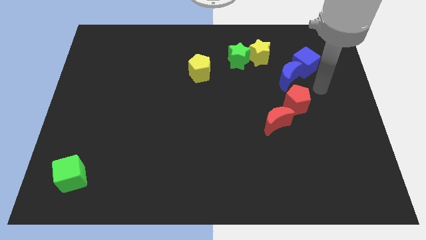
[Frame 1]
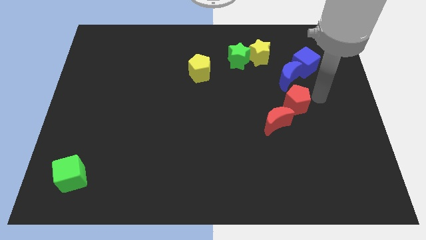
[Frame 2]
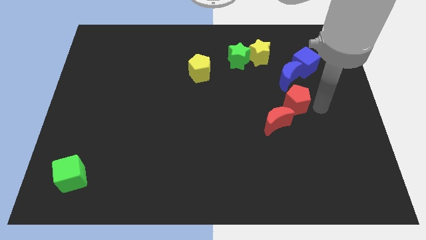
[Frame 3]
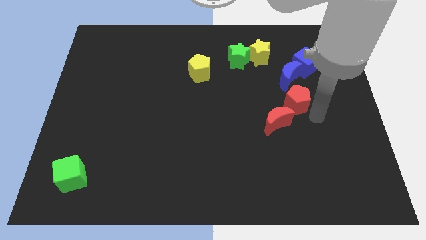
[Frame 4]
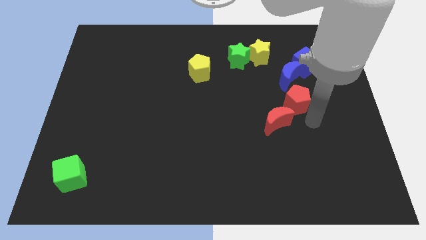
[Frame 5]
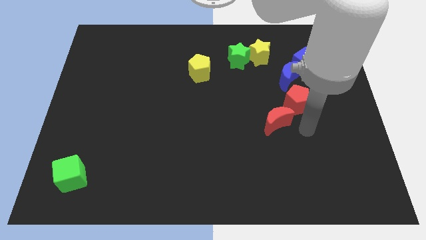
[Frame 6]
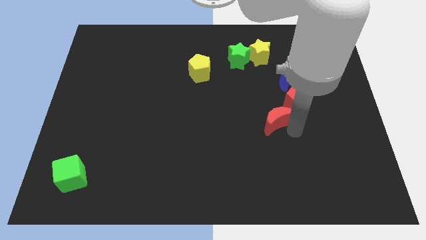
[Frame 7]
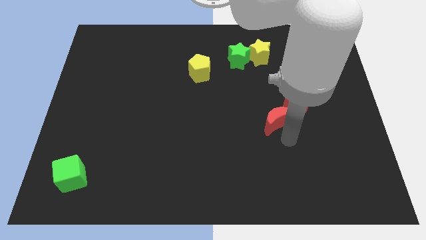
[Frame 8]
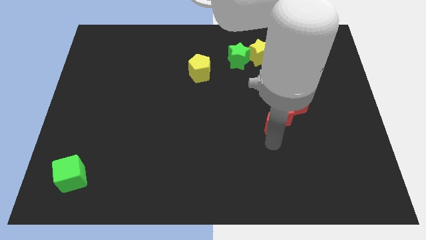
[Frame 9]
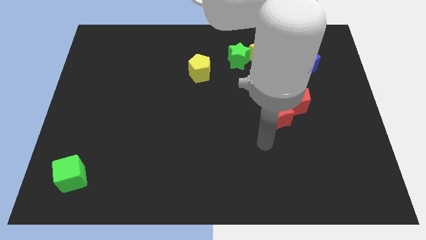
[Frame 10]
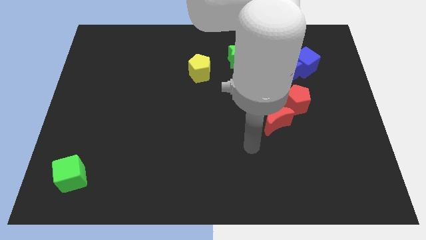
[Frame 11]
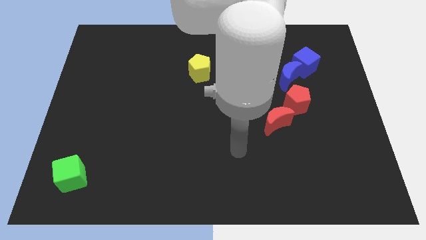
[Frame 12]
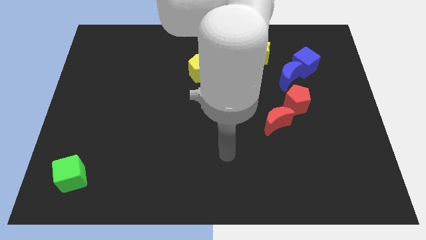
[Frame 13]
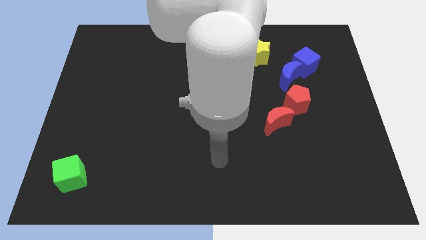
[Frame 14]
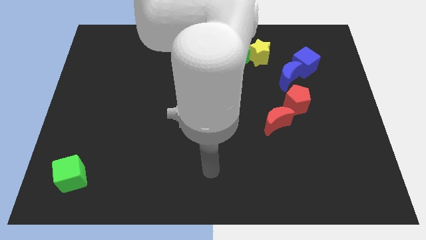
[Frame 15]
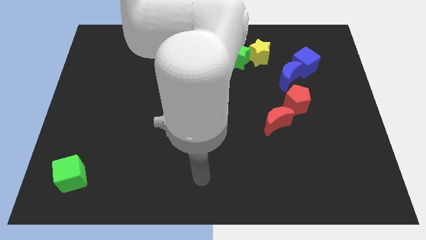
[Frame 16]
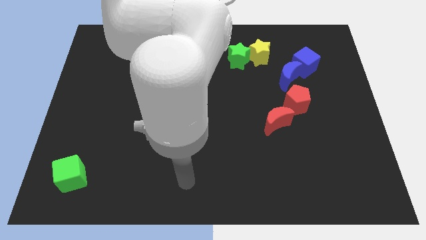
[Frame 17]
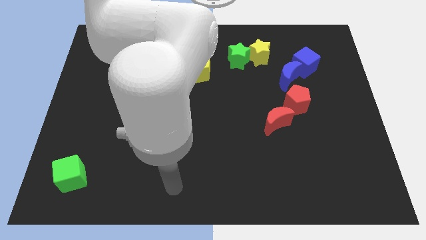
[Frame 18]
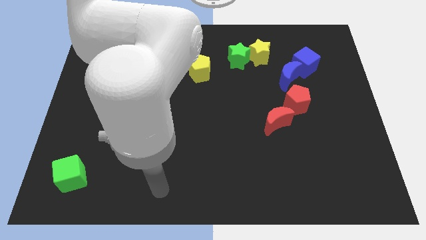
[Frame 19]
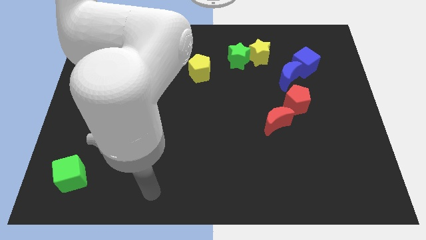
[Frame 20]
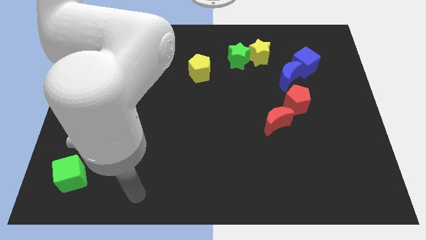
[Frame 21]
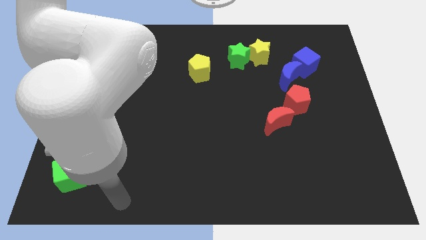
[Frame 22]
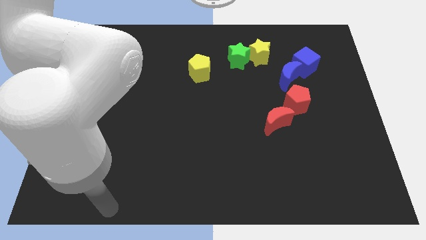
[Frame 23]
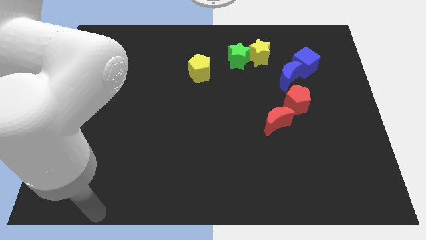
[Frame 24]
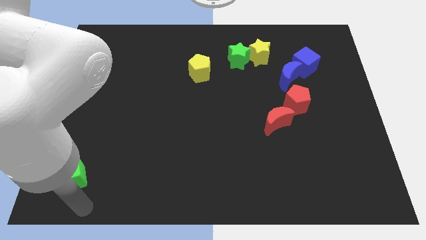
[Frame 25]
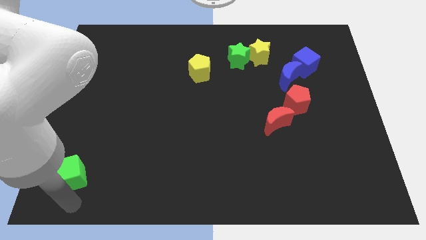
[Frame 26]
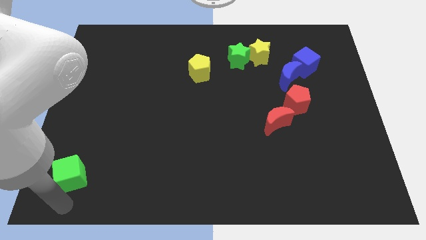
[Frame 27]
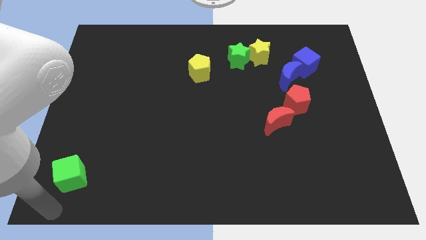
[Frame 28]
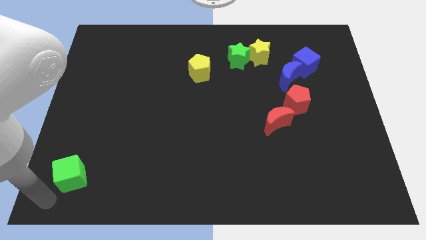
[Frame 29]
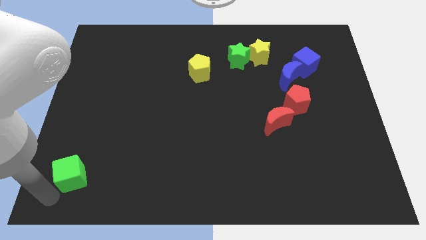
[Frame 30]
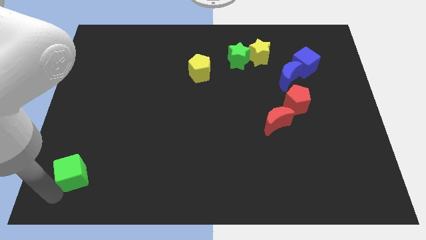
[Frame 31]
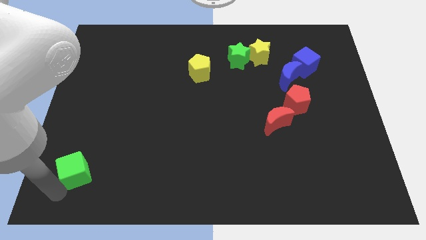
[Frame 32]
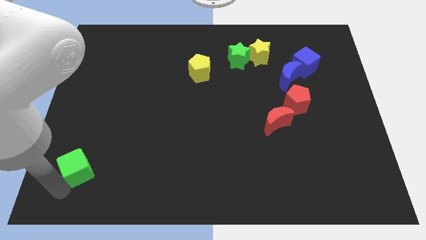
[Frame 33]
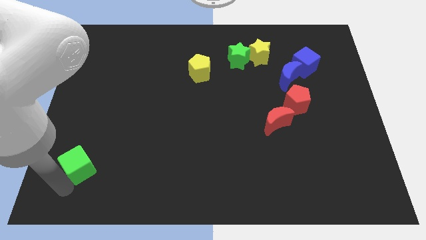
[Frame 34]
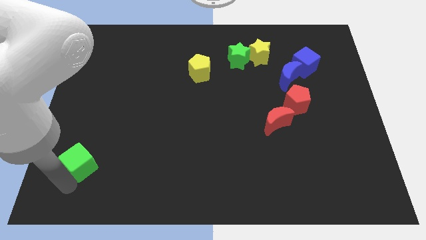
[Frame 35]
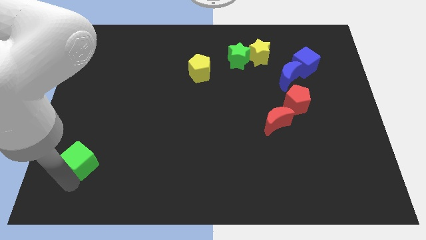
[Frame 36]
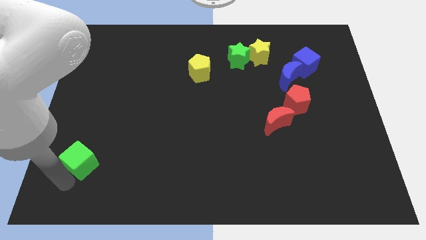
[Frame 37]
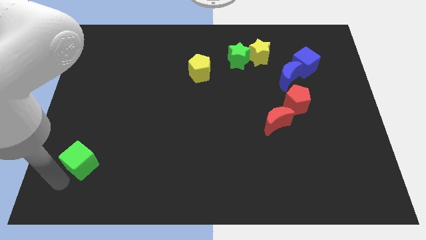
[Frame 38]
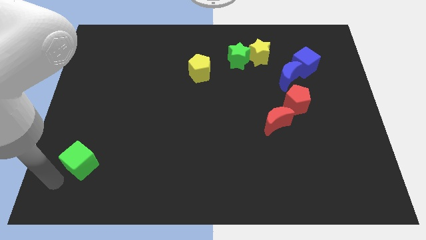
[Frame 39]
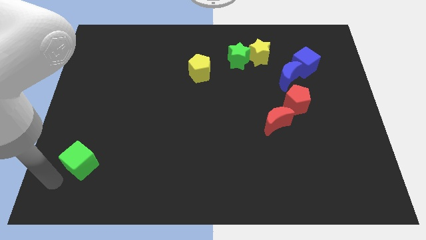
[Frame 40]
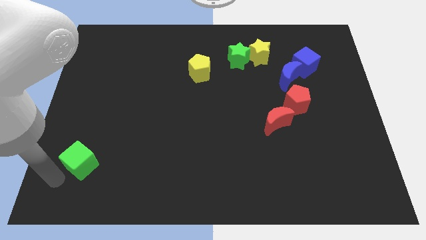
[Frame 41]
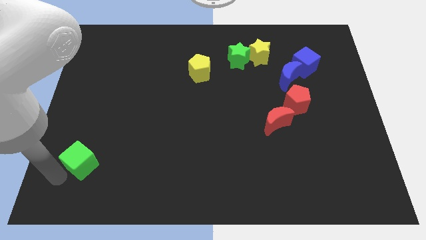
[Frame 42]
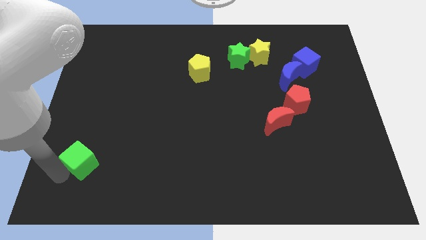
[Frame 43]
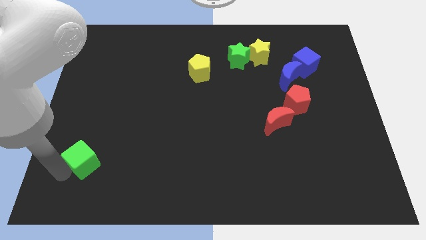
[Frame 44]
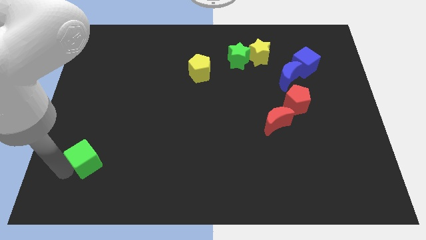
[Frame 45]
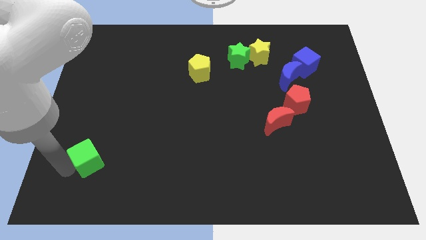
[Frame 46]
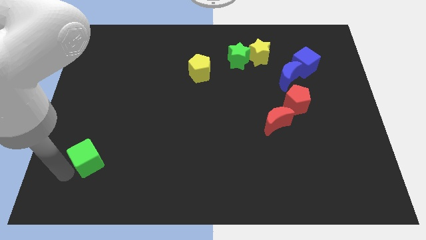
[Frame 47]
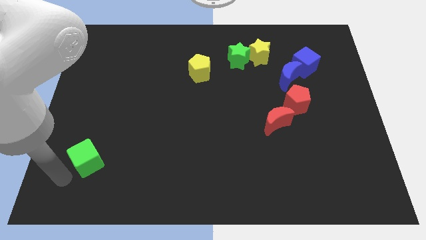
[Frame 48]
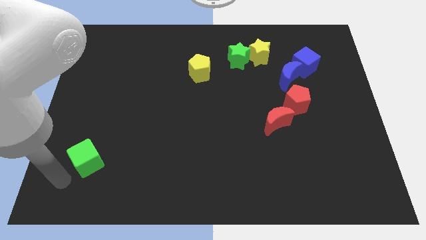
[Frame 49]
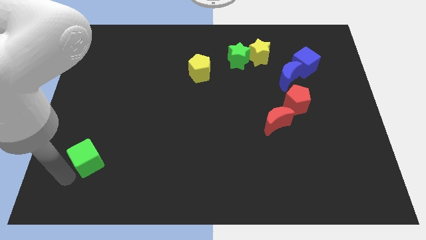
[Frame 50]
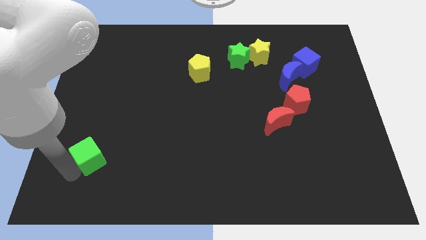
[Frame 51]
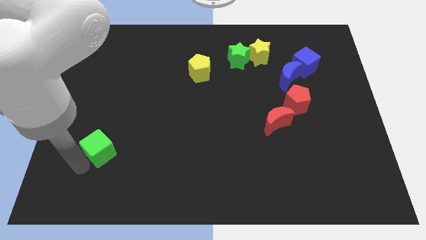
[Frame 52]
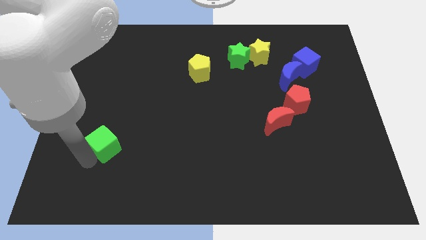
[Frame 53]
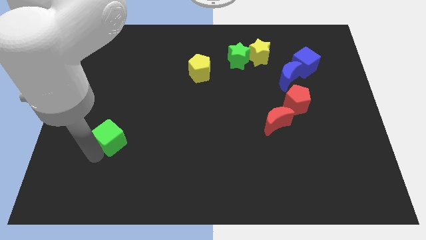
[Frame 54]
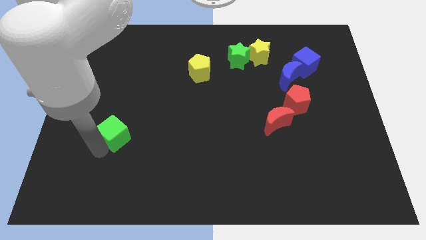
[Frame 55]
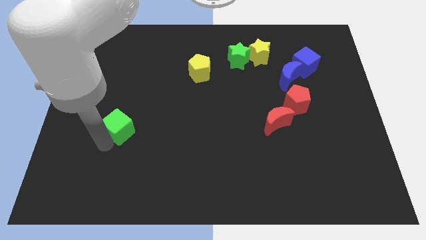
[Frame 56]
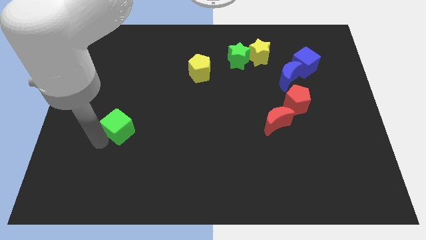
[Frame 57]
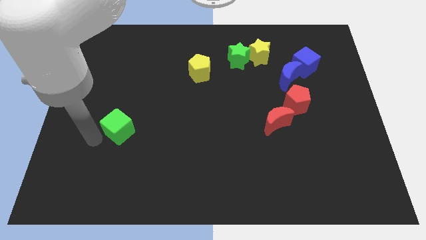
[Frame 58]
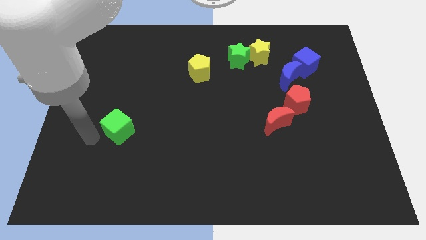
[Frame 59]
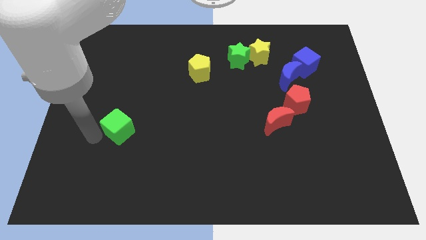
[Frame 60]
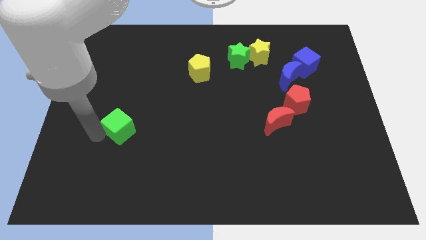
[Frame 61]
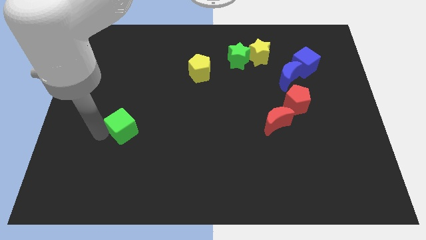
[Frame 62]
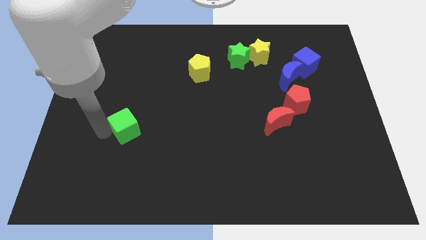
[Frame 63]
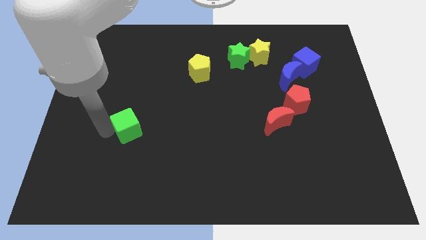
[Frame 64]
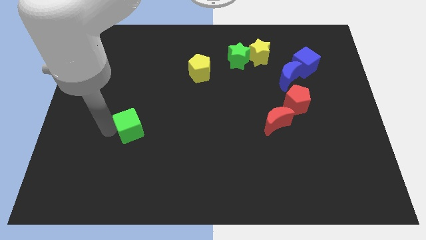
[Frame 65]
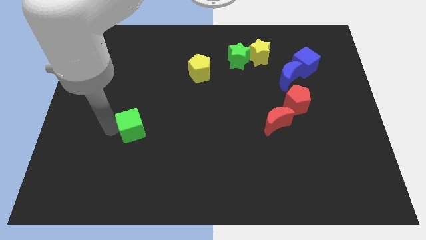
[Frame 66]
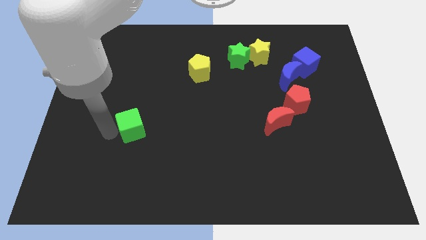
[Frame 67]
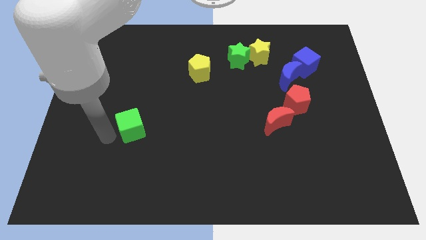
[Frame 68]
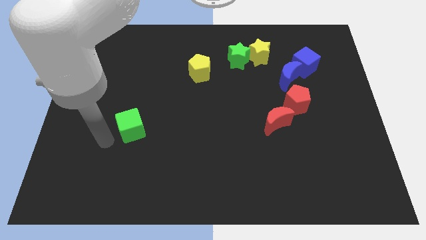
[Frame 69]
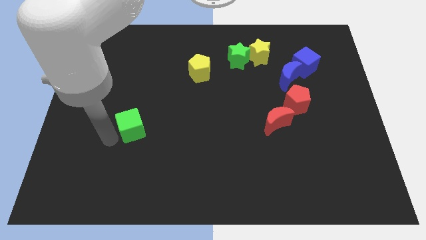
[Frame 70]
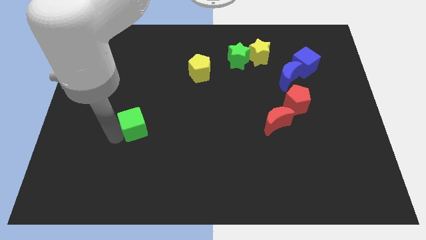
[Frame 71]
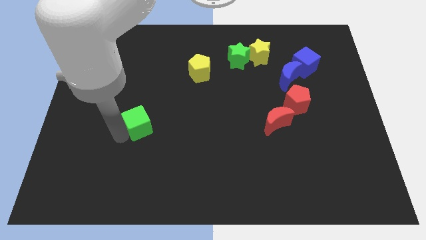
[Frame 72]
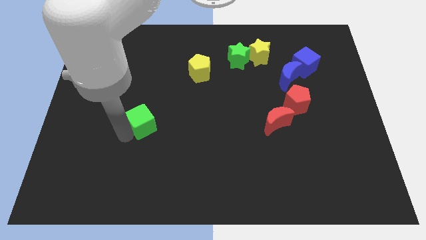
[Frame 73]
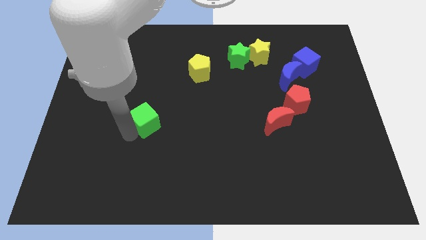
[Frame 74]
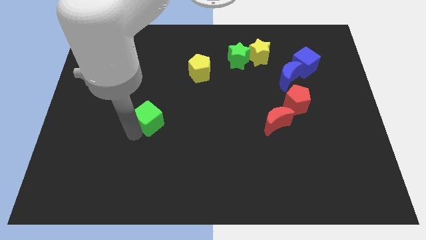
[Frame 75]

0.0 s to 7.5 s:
slide the green cube diagonally upwards and to the right
